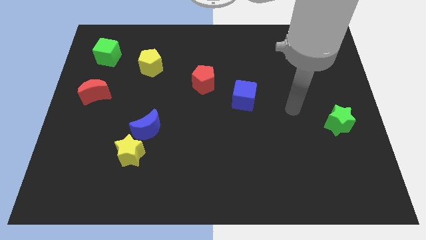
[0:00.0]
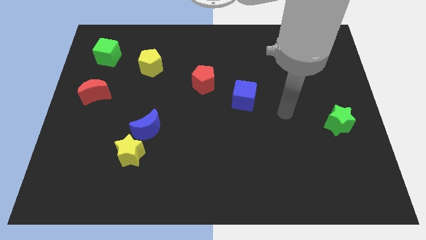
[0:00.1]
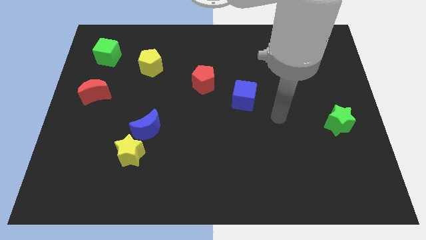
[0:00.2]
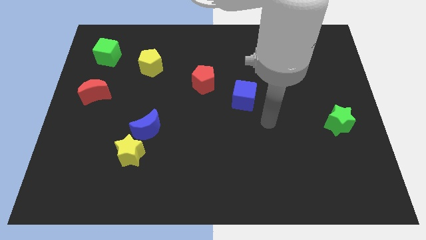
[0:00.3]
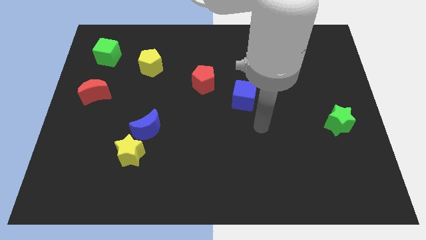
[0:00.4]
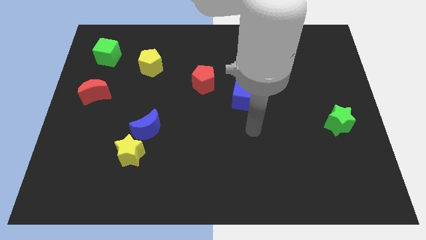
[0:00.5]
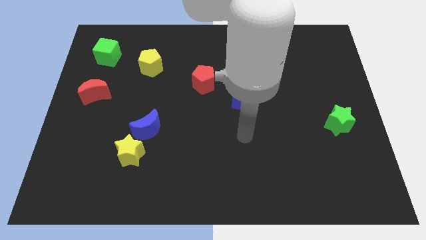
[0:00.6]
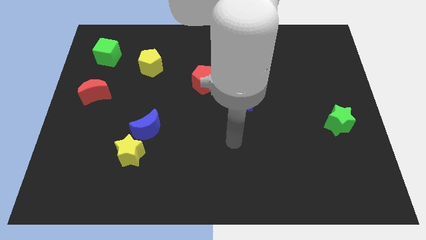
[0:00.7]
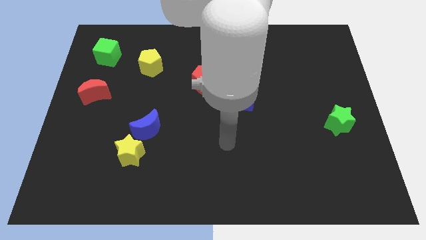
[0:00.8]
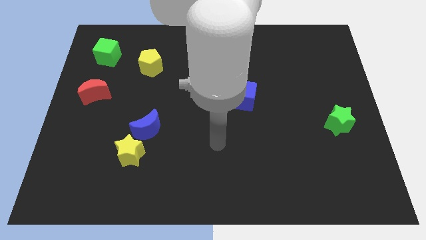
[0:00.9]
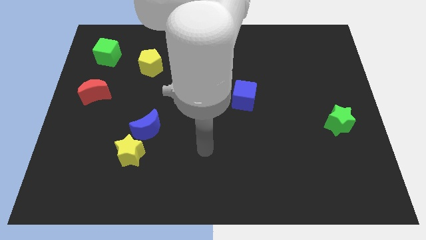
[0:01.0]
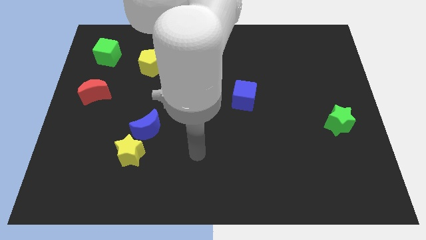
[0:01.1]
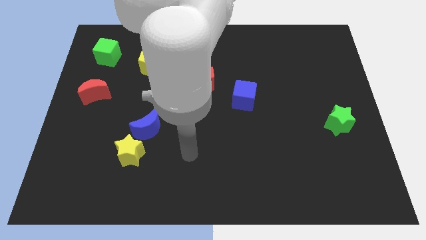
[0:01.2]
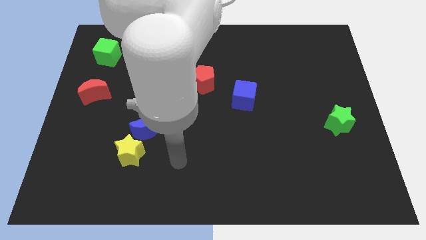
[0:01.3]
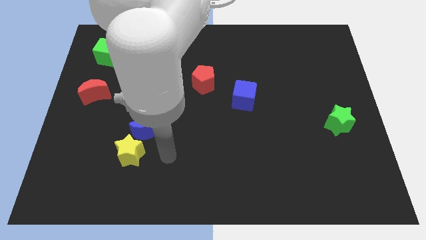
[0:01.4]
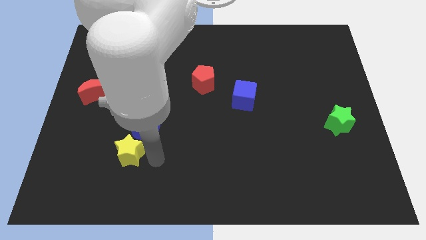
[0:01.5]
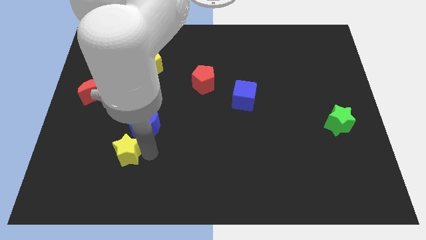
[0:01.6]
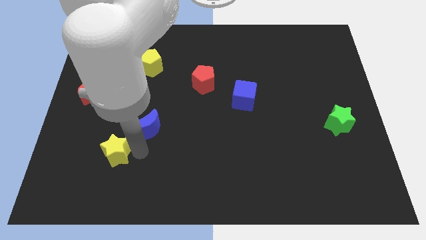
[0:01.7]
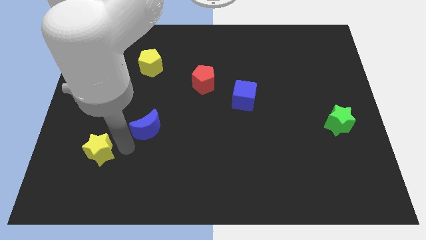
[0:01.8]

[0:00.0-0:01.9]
separate the blue moon from the yellow star

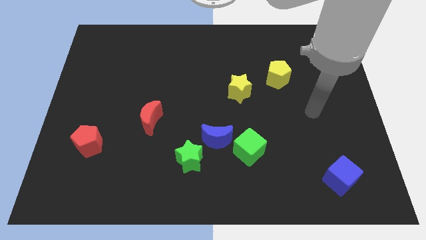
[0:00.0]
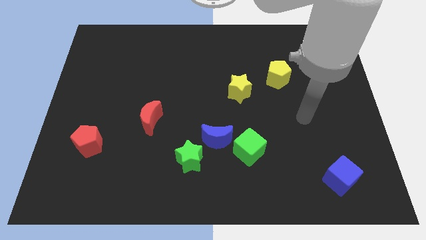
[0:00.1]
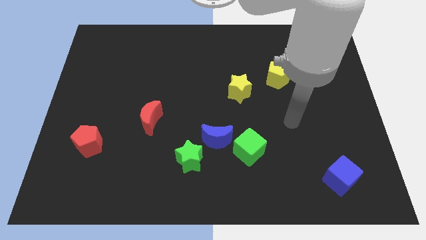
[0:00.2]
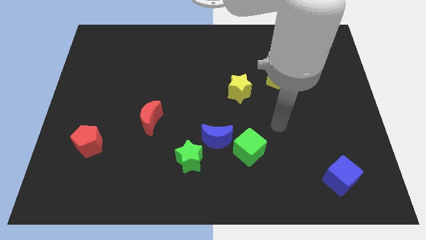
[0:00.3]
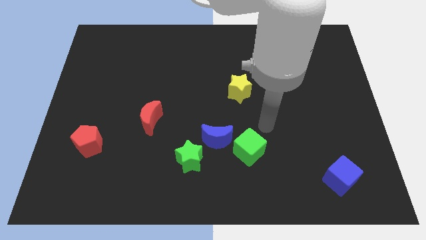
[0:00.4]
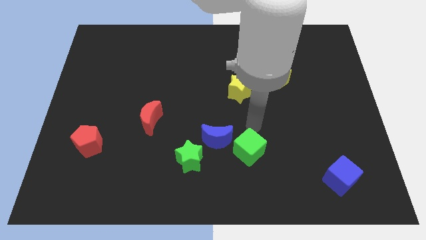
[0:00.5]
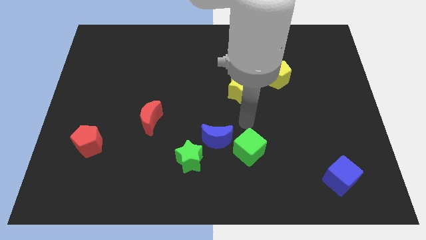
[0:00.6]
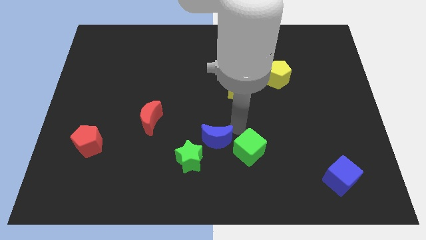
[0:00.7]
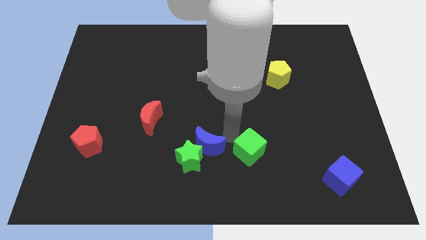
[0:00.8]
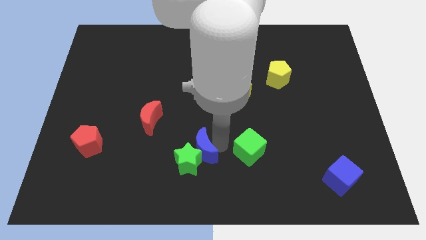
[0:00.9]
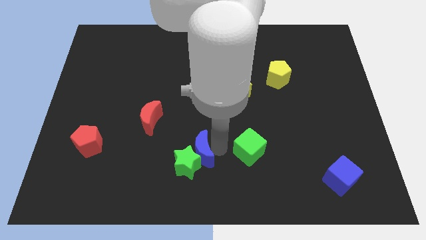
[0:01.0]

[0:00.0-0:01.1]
move the green cube away from the blue moon

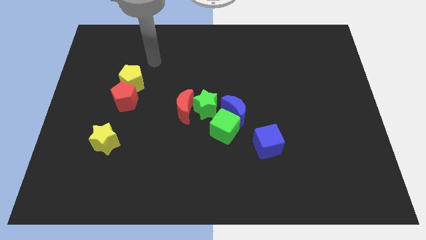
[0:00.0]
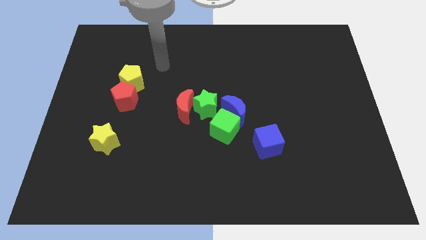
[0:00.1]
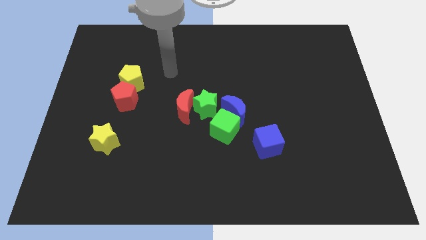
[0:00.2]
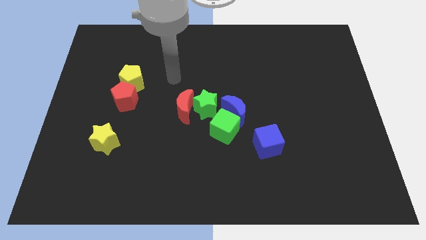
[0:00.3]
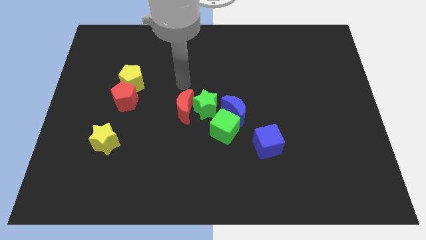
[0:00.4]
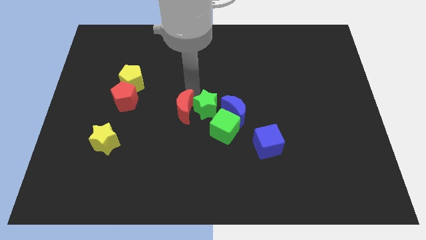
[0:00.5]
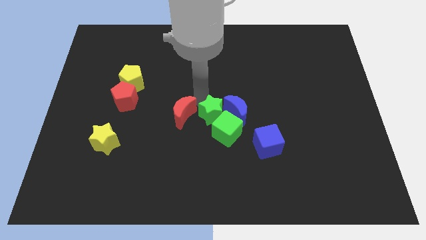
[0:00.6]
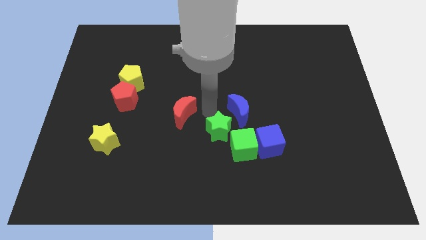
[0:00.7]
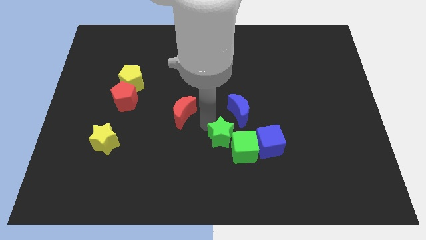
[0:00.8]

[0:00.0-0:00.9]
separate the red moon from the green star

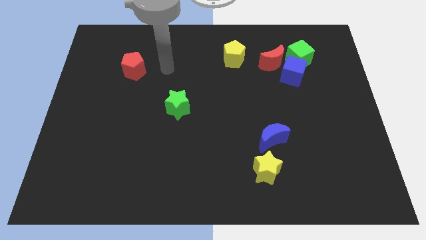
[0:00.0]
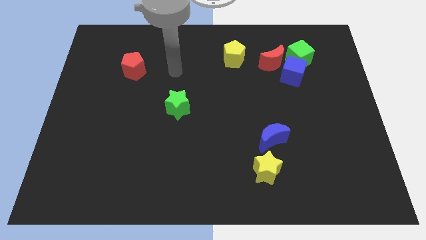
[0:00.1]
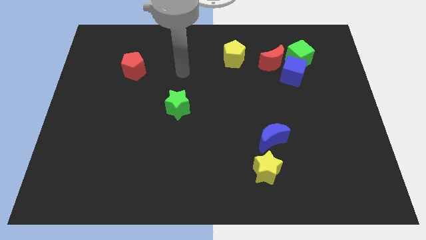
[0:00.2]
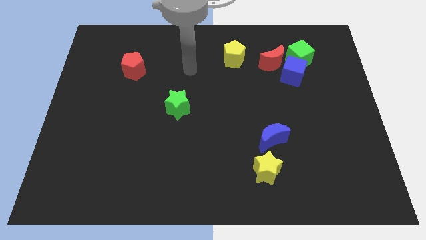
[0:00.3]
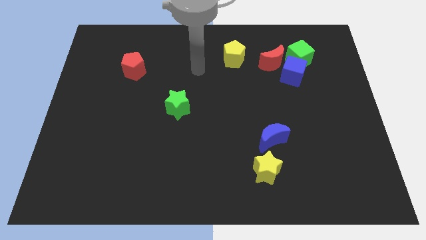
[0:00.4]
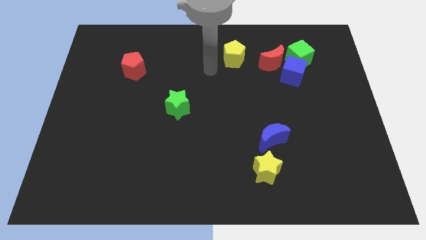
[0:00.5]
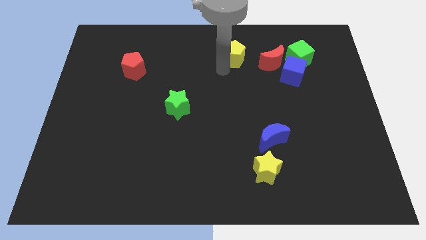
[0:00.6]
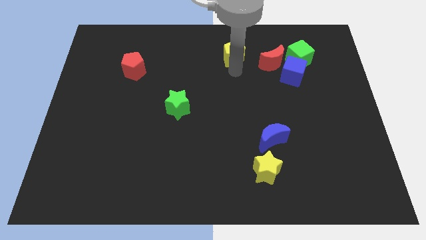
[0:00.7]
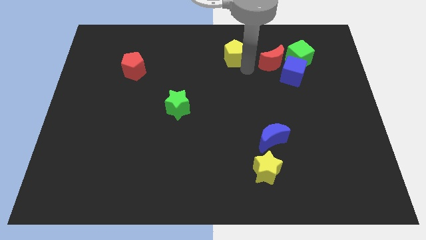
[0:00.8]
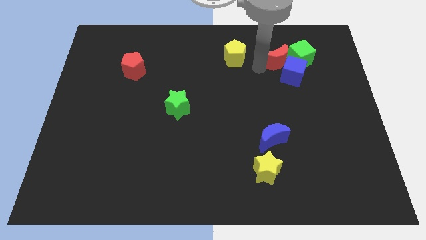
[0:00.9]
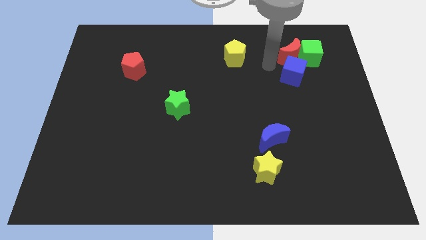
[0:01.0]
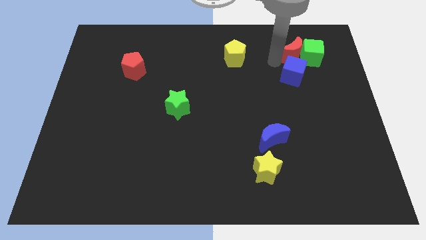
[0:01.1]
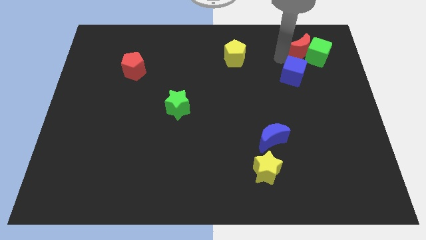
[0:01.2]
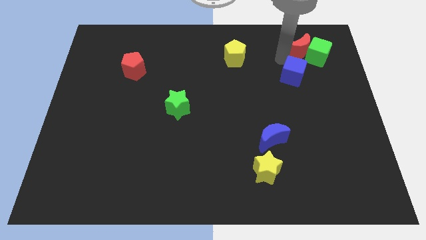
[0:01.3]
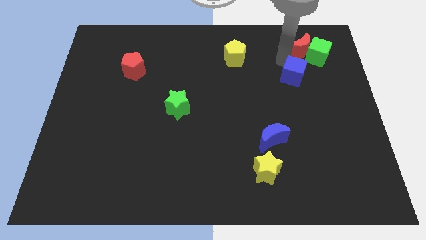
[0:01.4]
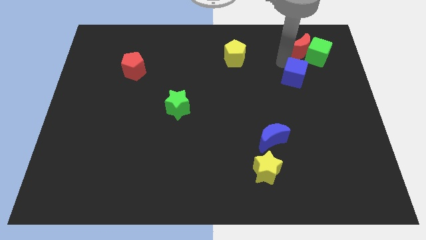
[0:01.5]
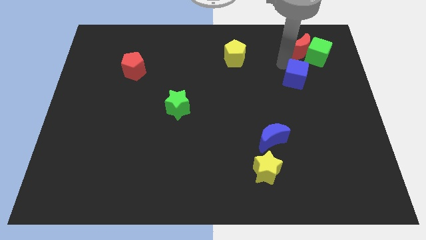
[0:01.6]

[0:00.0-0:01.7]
separate the blue cube from the green cube and red moon

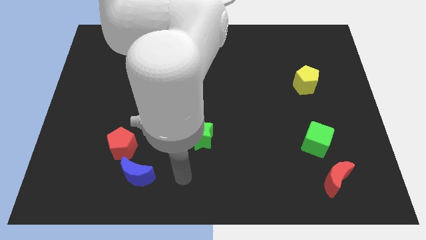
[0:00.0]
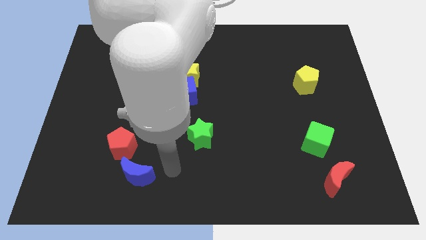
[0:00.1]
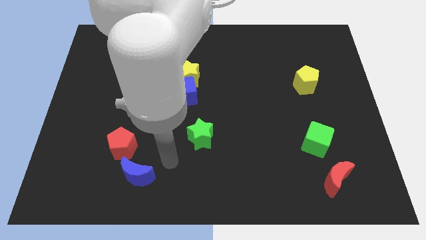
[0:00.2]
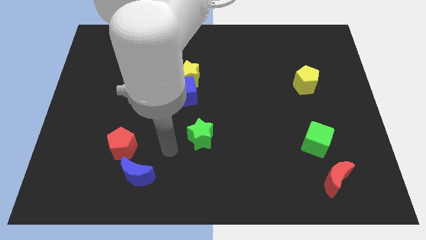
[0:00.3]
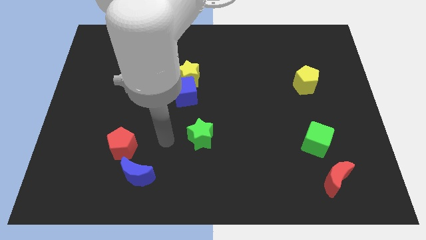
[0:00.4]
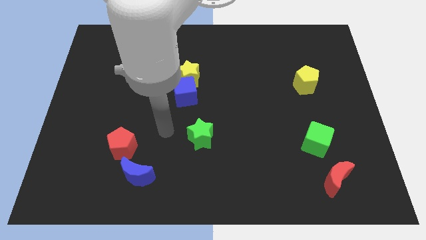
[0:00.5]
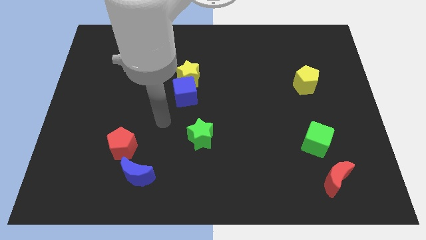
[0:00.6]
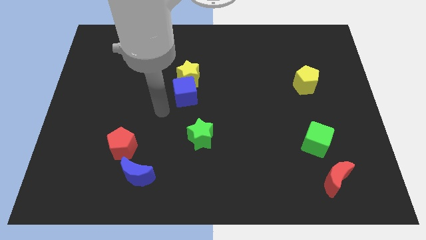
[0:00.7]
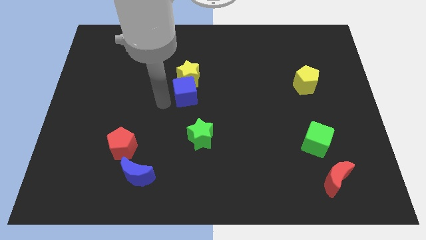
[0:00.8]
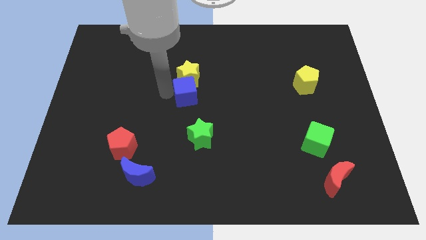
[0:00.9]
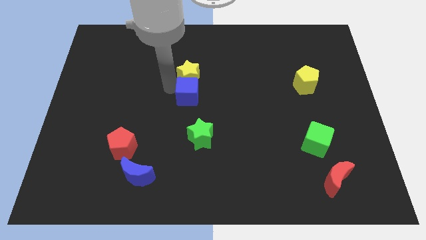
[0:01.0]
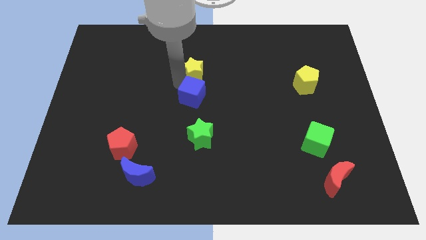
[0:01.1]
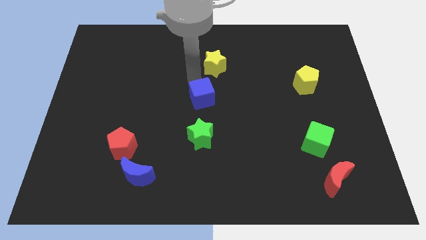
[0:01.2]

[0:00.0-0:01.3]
move the blue cube away from the yellow star

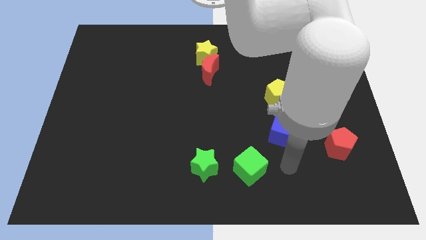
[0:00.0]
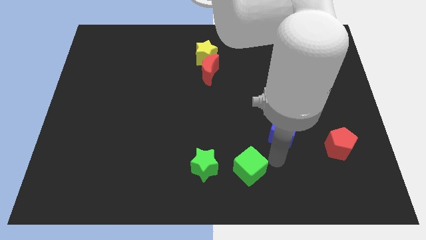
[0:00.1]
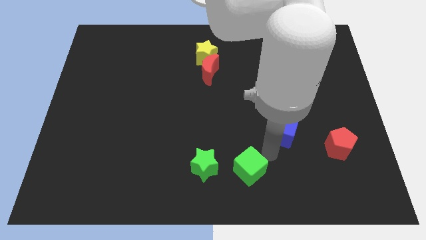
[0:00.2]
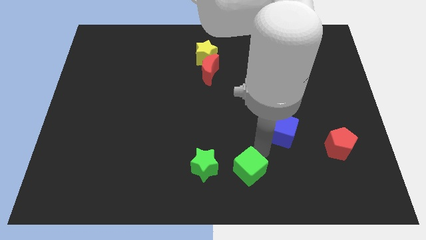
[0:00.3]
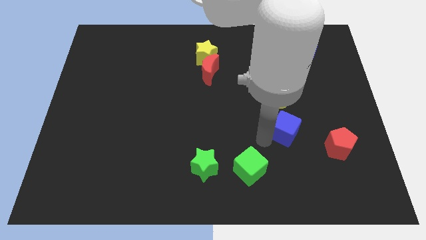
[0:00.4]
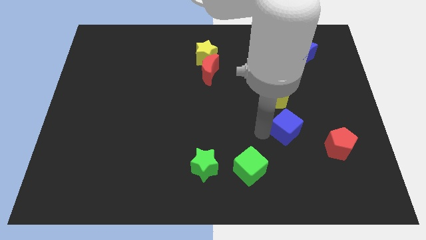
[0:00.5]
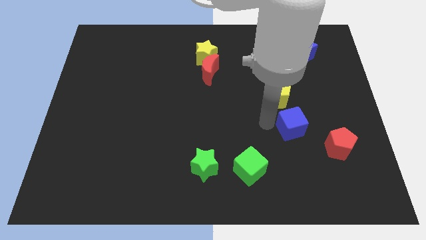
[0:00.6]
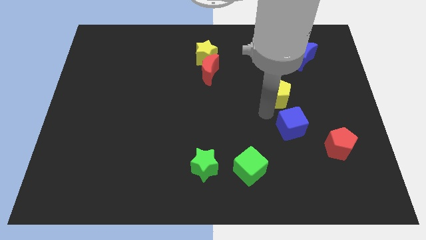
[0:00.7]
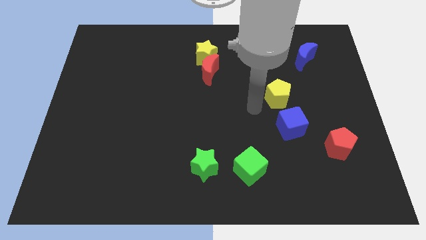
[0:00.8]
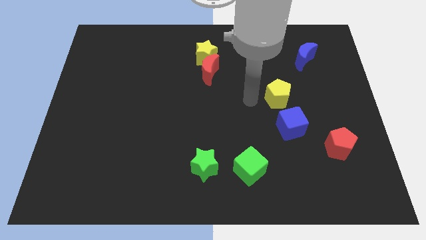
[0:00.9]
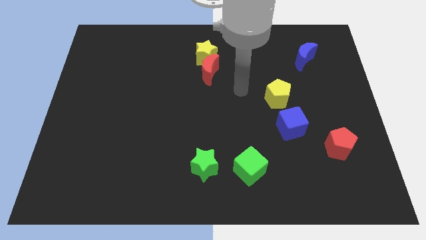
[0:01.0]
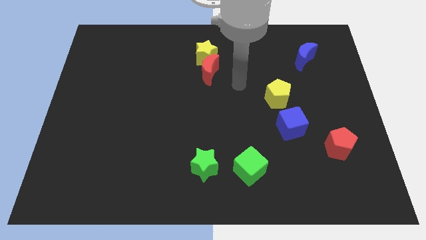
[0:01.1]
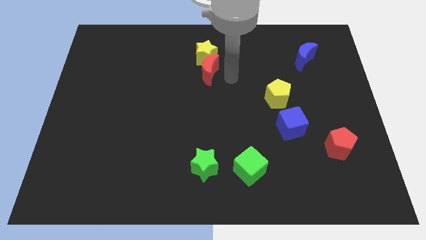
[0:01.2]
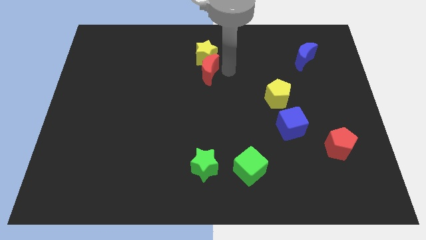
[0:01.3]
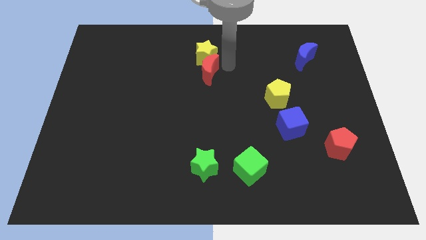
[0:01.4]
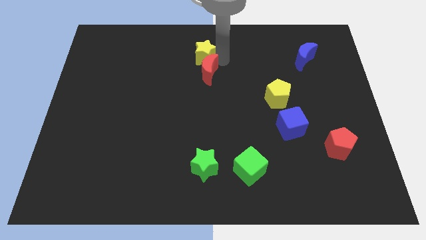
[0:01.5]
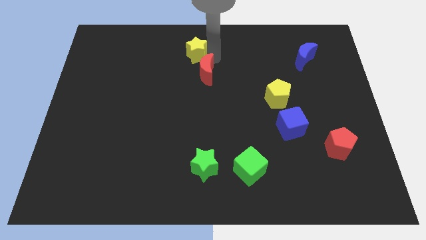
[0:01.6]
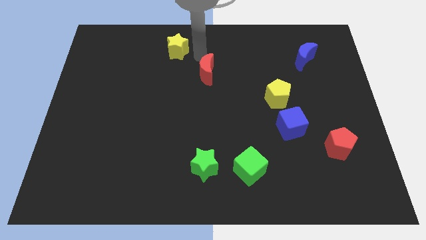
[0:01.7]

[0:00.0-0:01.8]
move the red moon away from the yellow star

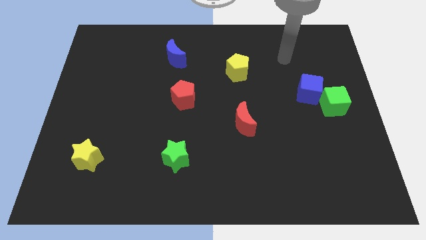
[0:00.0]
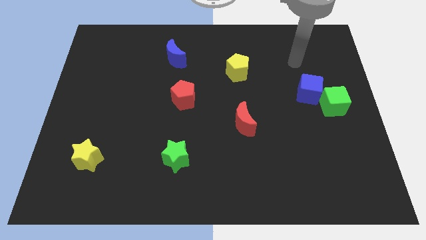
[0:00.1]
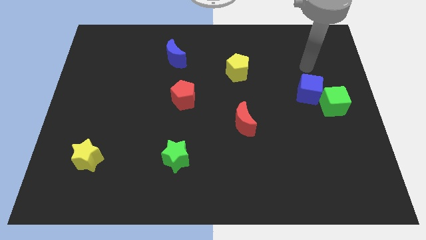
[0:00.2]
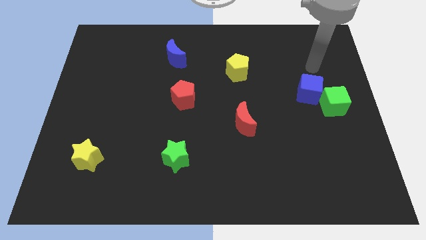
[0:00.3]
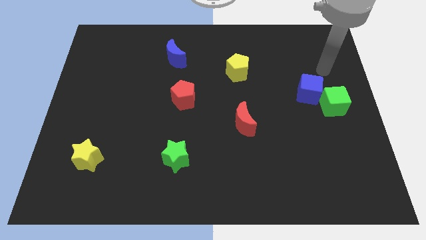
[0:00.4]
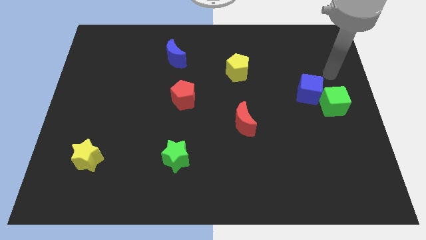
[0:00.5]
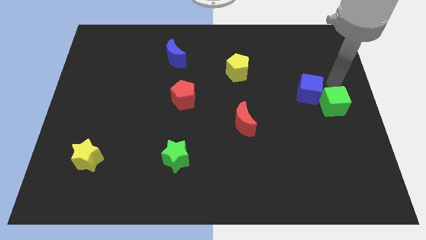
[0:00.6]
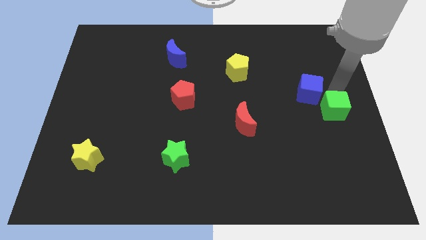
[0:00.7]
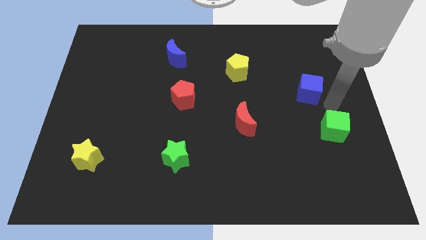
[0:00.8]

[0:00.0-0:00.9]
move the blue cube away from the green cube
